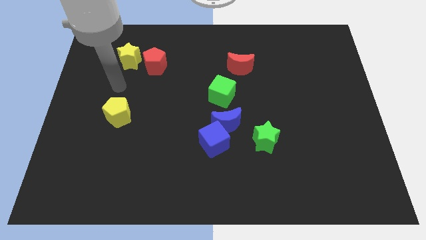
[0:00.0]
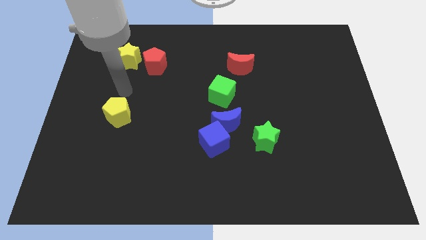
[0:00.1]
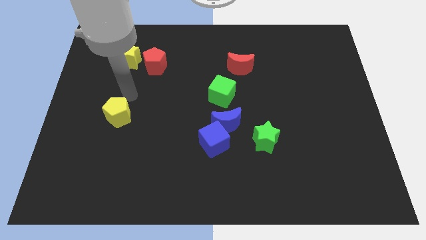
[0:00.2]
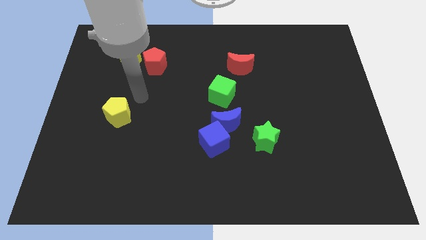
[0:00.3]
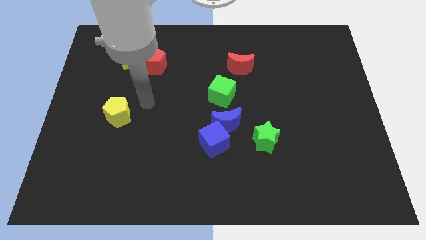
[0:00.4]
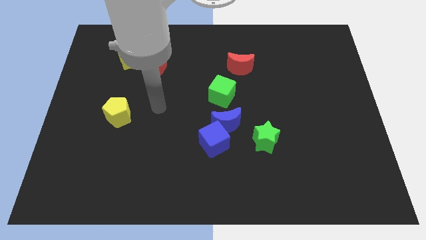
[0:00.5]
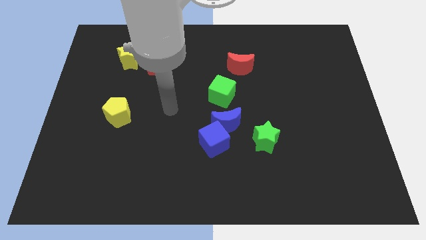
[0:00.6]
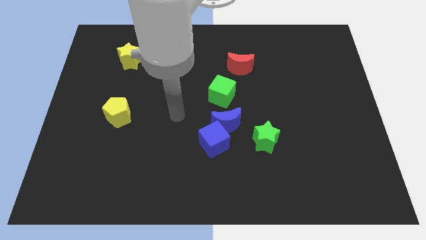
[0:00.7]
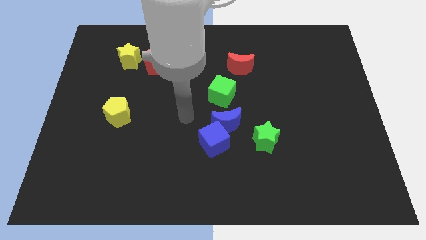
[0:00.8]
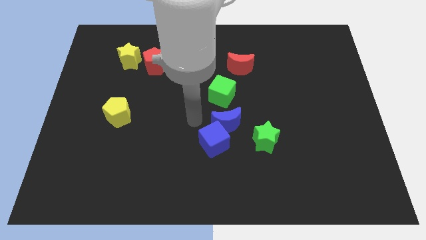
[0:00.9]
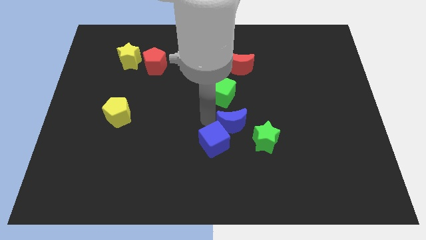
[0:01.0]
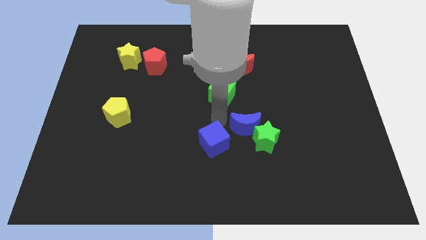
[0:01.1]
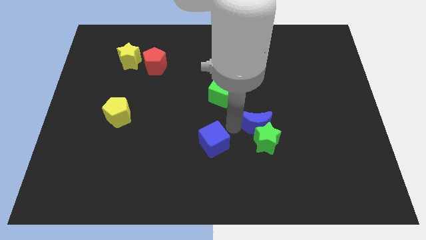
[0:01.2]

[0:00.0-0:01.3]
pull the blue cube apart from the blue moon

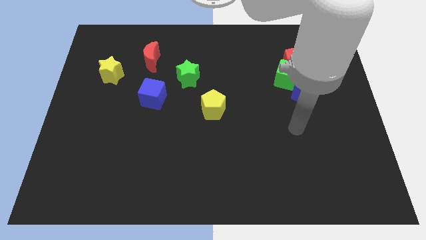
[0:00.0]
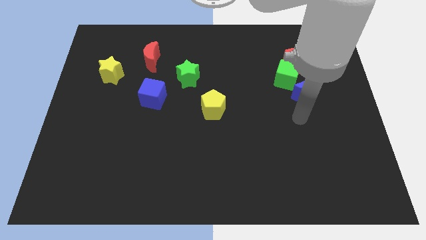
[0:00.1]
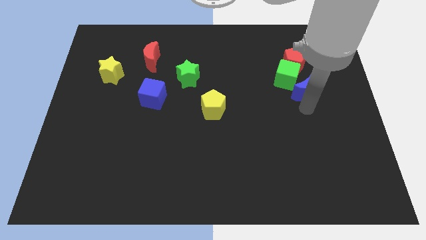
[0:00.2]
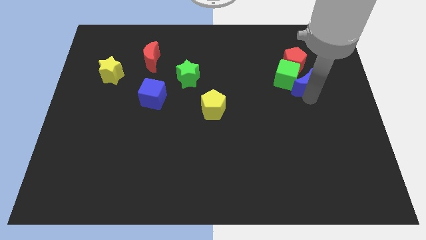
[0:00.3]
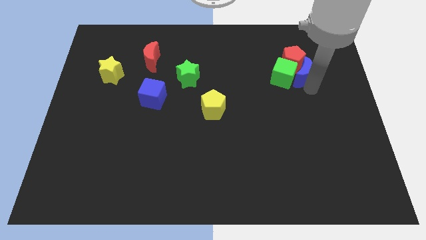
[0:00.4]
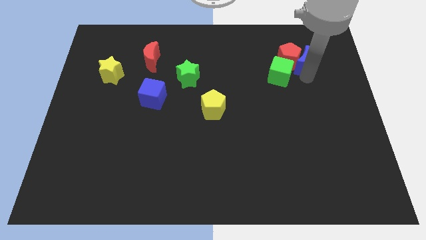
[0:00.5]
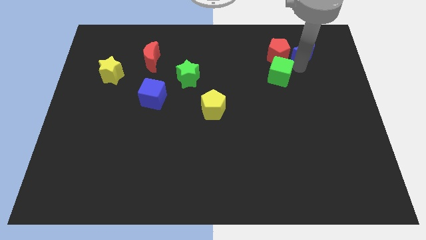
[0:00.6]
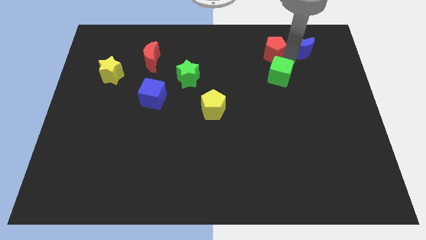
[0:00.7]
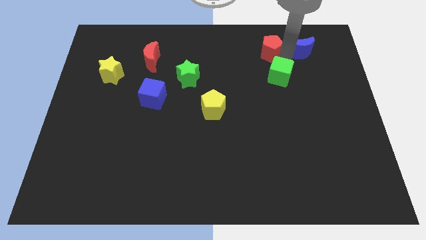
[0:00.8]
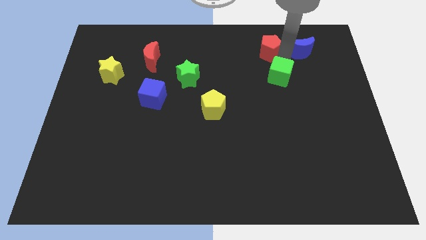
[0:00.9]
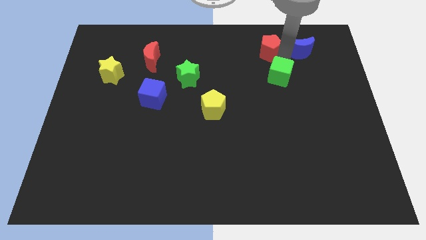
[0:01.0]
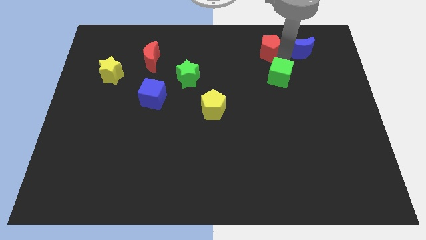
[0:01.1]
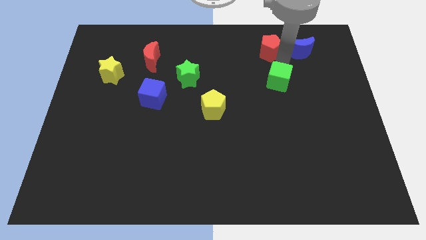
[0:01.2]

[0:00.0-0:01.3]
pull the green cube apart from the red pentagon and blue moon

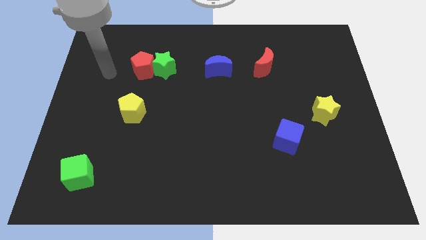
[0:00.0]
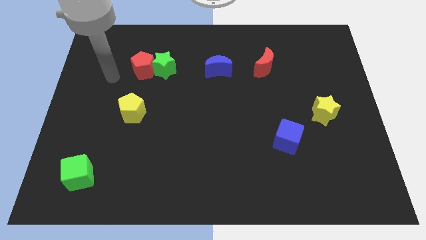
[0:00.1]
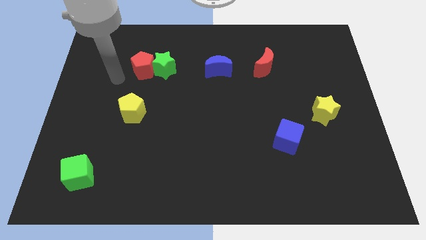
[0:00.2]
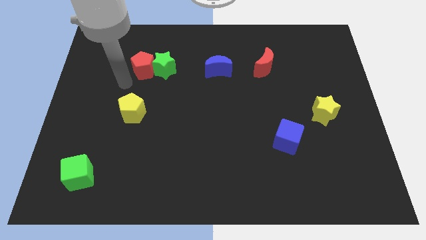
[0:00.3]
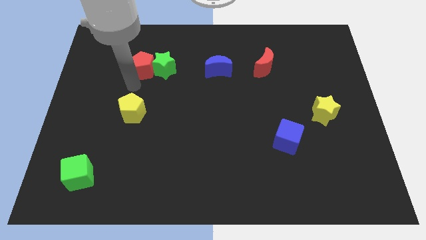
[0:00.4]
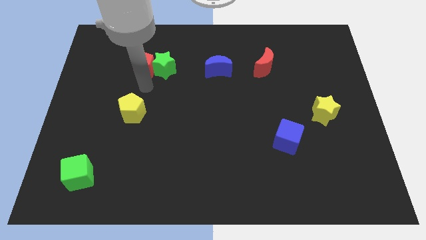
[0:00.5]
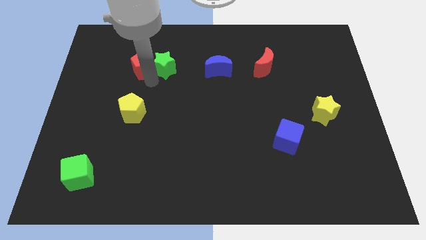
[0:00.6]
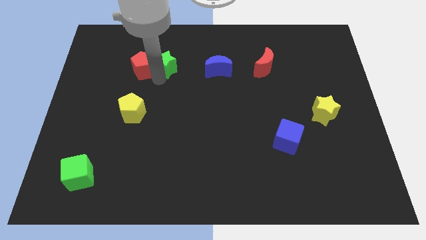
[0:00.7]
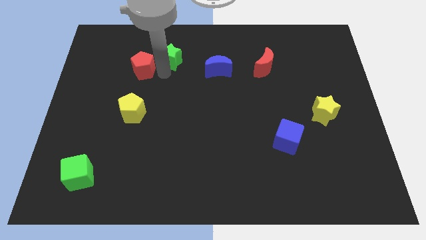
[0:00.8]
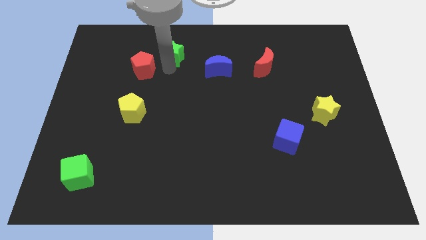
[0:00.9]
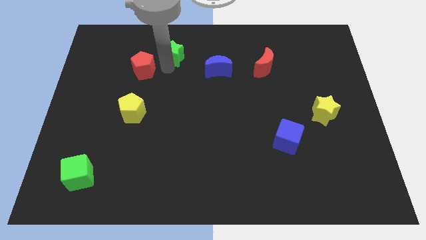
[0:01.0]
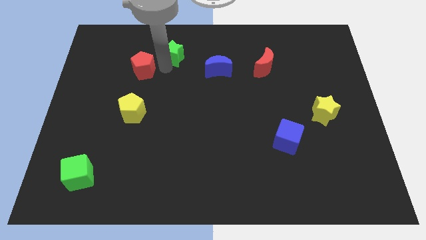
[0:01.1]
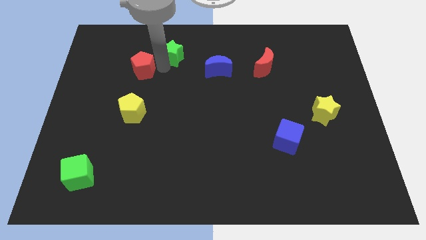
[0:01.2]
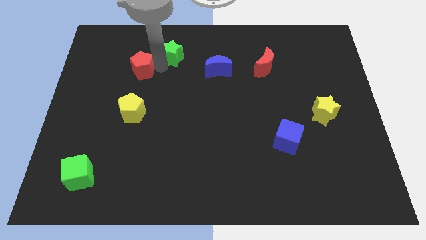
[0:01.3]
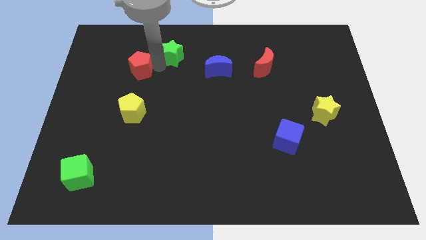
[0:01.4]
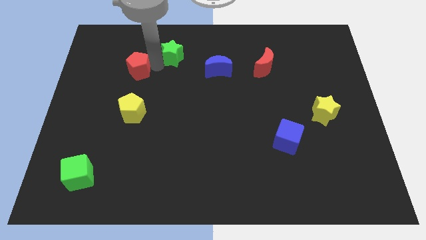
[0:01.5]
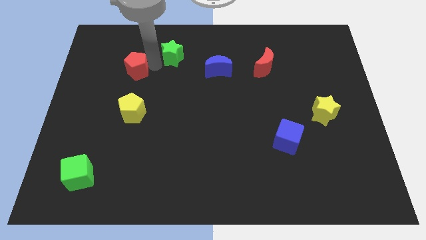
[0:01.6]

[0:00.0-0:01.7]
pull the red pentagon apart from the green star

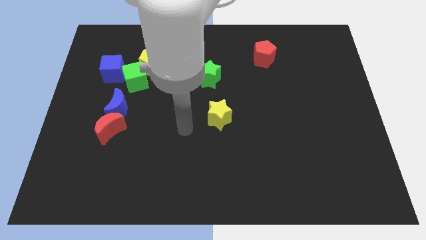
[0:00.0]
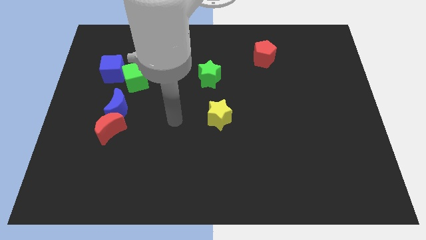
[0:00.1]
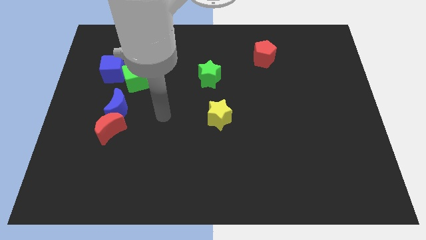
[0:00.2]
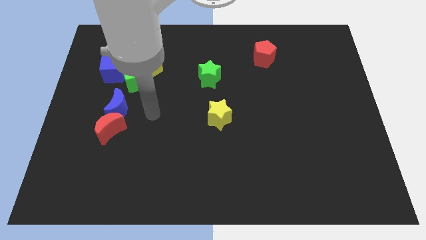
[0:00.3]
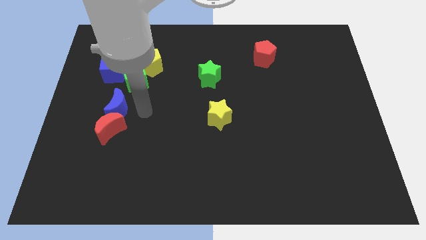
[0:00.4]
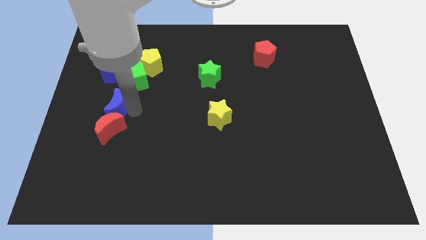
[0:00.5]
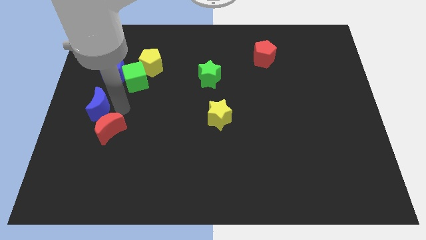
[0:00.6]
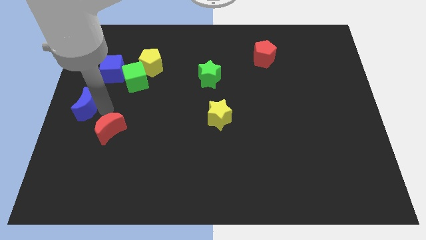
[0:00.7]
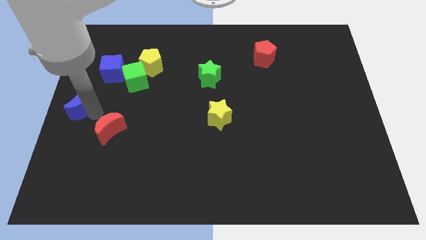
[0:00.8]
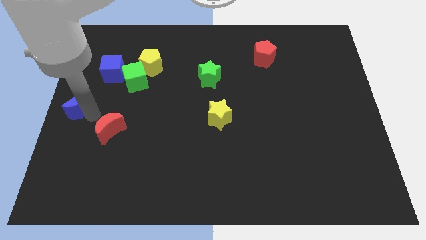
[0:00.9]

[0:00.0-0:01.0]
separate the red moon from the blue moon

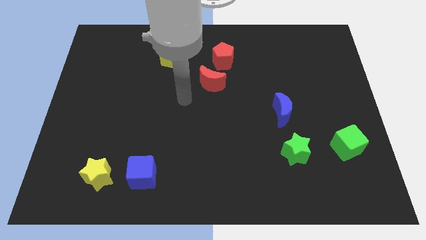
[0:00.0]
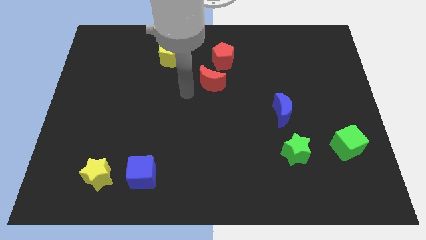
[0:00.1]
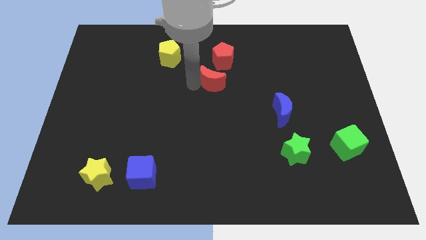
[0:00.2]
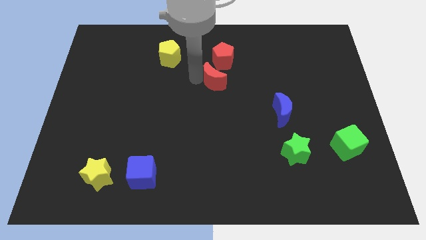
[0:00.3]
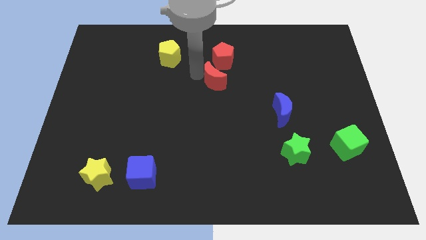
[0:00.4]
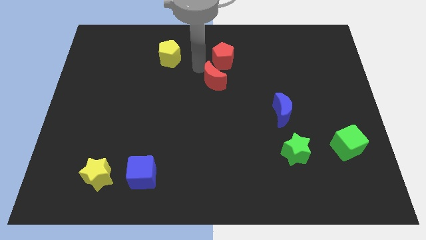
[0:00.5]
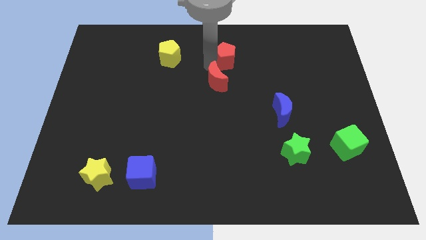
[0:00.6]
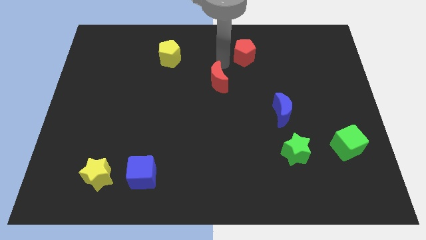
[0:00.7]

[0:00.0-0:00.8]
separate the red moon from the red pentagon

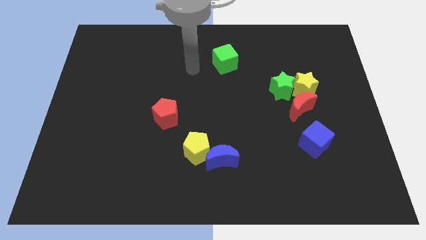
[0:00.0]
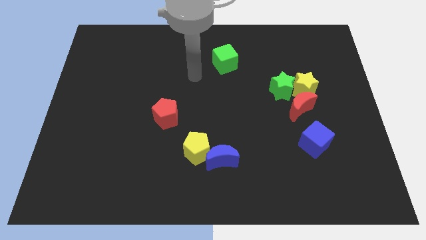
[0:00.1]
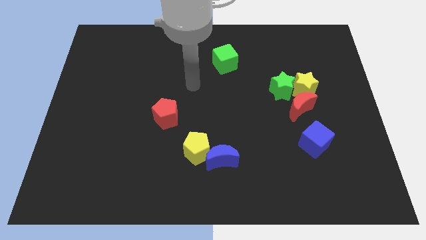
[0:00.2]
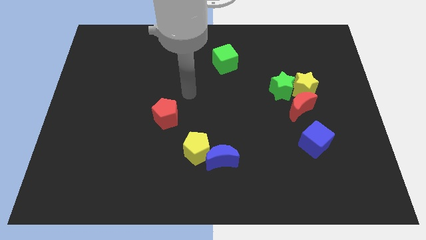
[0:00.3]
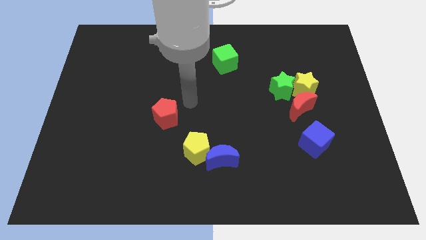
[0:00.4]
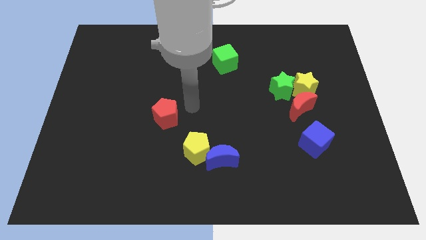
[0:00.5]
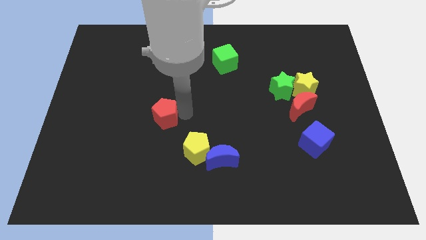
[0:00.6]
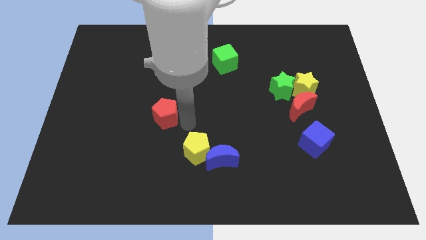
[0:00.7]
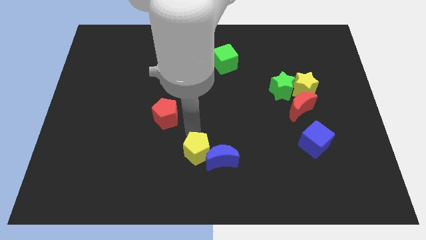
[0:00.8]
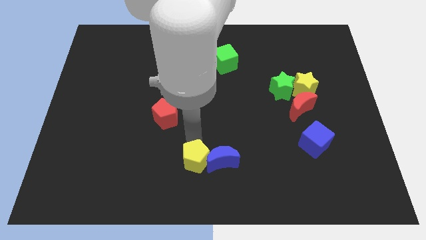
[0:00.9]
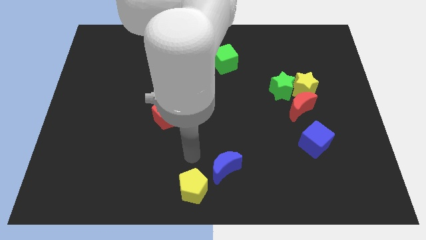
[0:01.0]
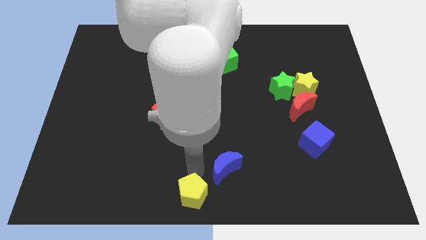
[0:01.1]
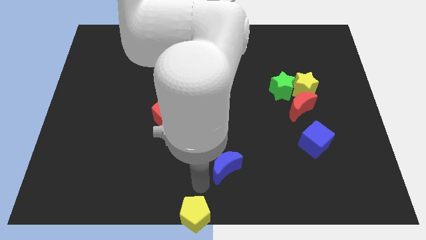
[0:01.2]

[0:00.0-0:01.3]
move the blue moon away from the yellow pentagon

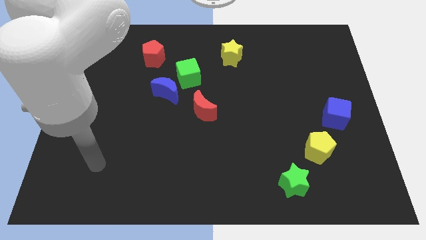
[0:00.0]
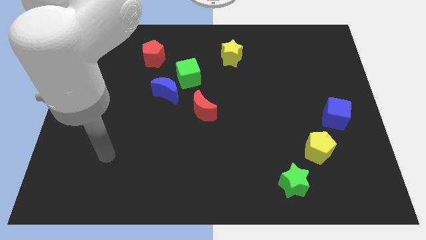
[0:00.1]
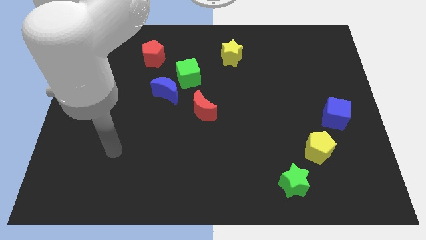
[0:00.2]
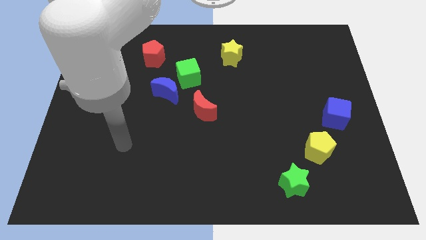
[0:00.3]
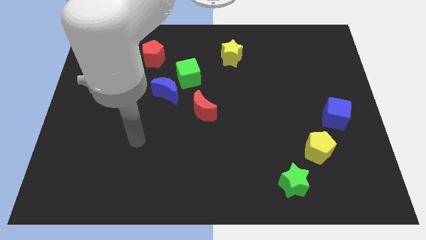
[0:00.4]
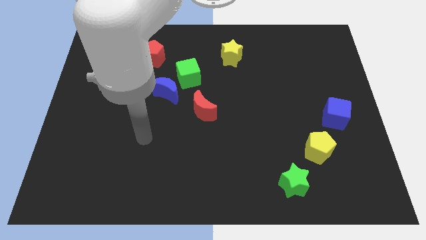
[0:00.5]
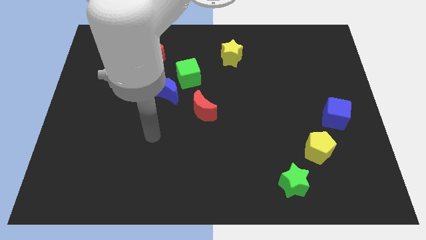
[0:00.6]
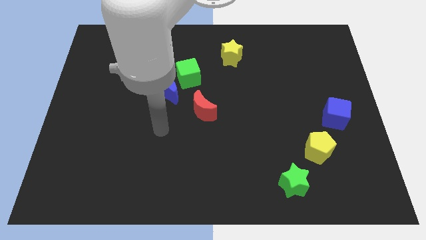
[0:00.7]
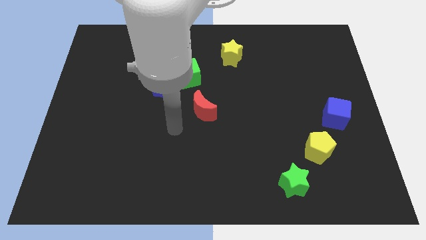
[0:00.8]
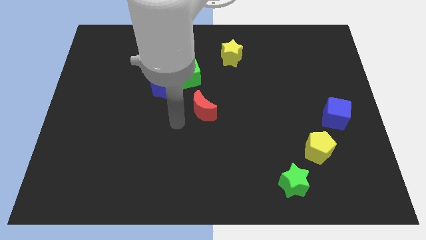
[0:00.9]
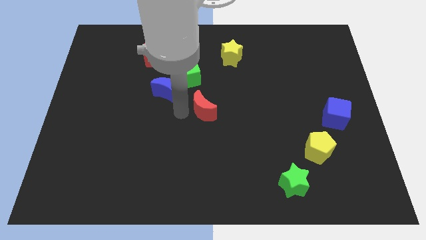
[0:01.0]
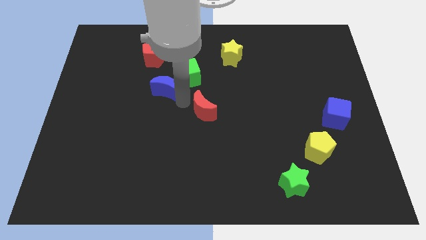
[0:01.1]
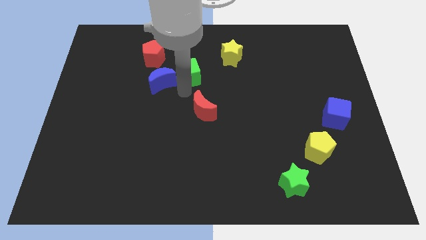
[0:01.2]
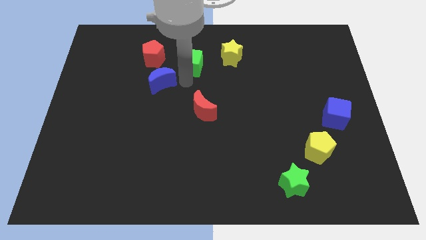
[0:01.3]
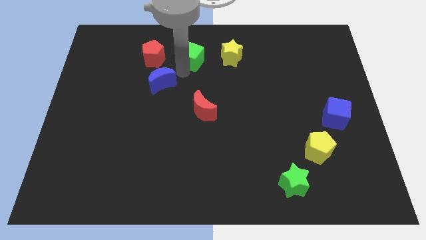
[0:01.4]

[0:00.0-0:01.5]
separate the blue moon from the green cube

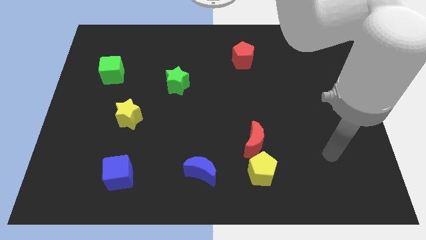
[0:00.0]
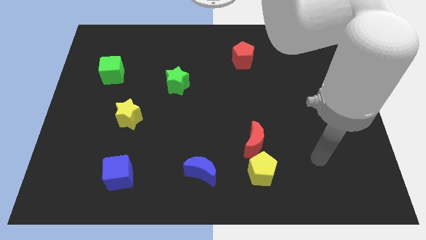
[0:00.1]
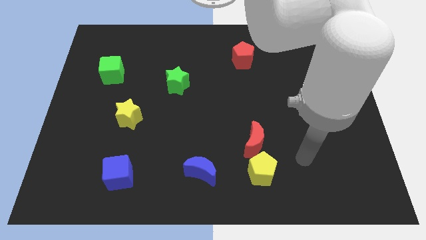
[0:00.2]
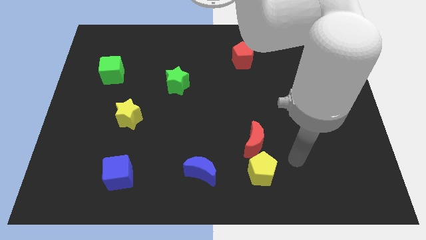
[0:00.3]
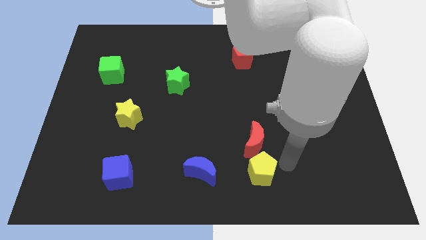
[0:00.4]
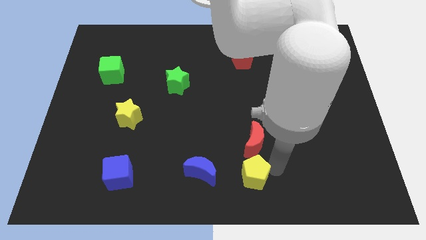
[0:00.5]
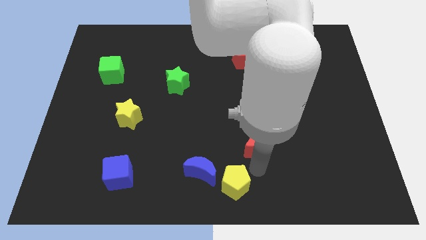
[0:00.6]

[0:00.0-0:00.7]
move the red moon away from the yellow pentagon
